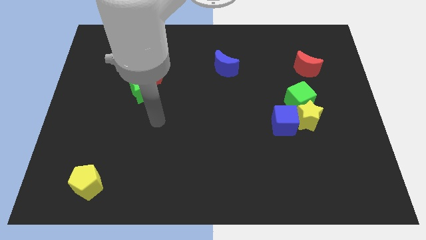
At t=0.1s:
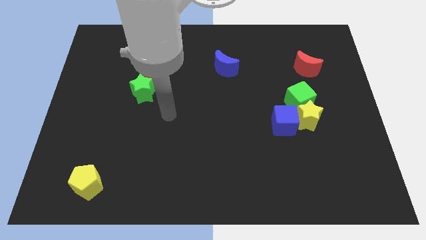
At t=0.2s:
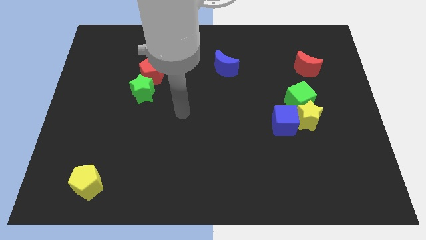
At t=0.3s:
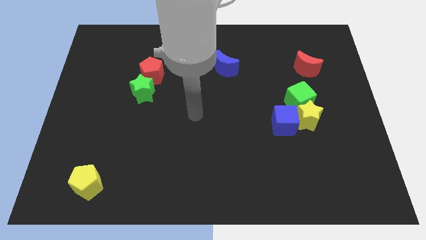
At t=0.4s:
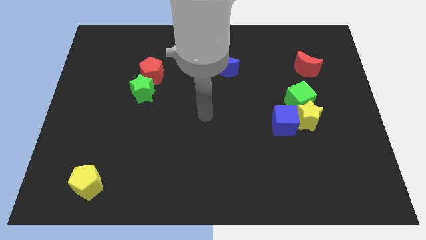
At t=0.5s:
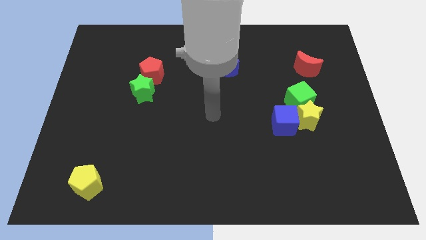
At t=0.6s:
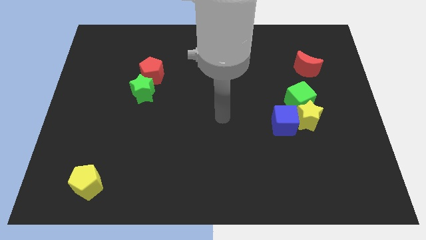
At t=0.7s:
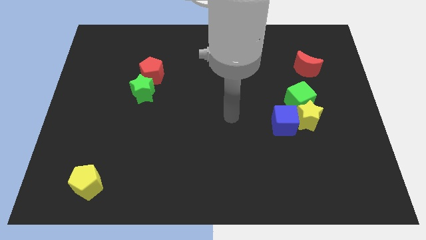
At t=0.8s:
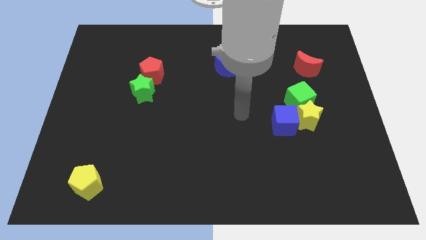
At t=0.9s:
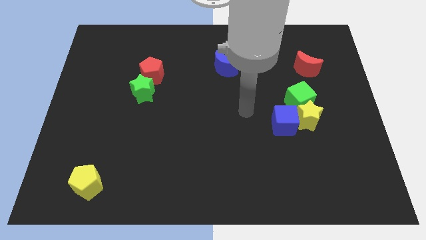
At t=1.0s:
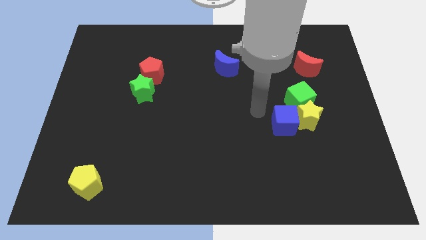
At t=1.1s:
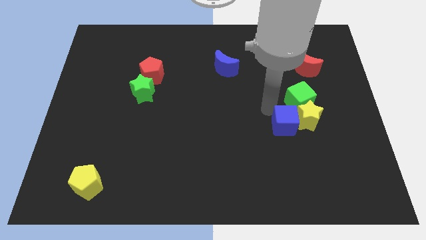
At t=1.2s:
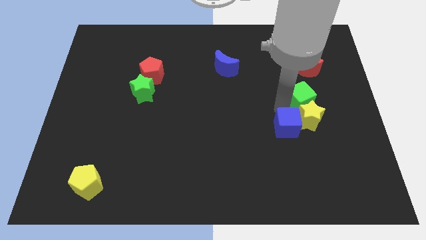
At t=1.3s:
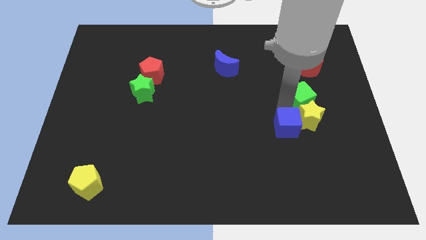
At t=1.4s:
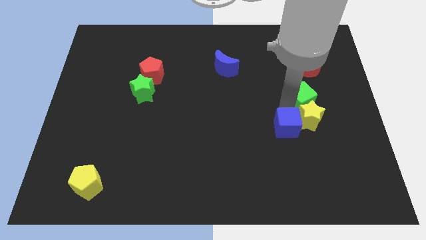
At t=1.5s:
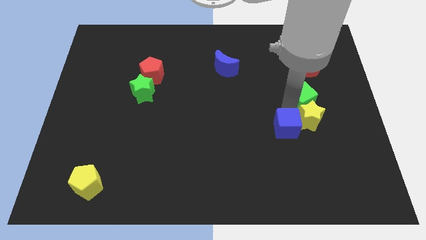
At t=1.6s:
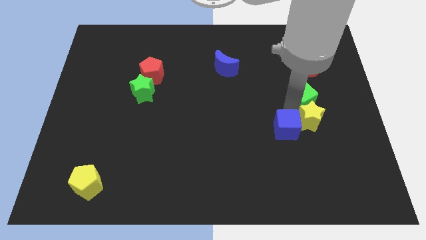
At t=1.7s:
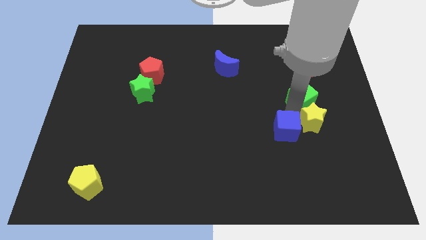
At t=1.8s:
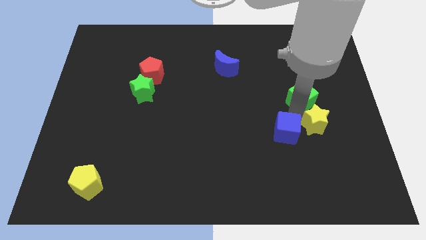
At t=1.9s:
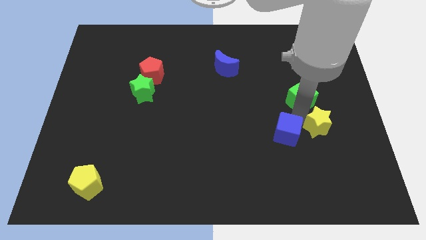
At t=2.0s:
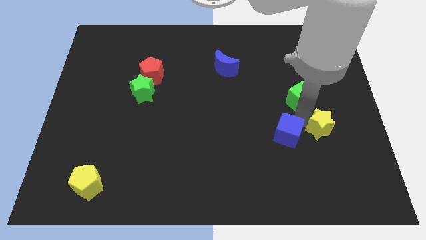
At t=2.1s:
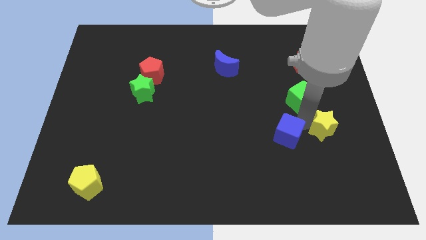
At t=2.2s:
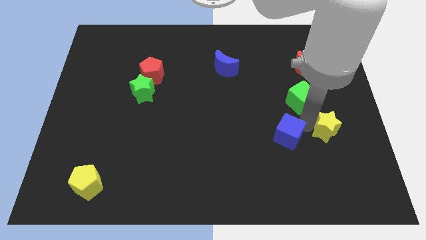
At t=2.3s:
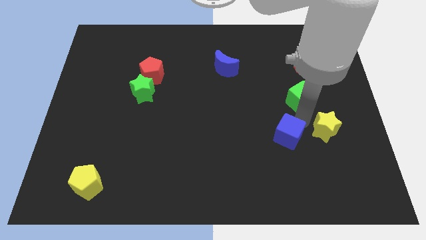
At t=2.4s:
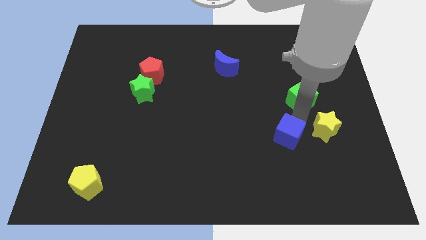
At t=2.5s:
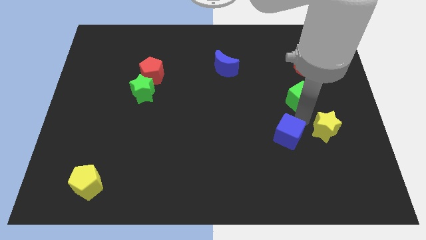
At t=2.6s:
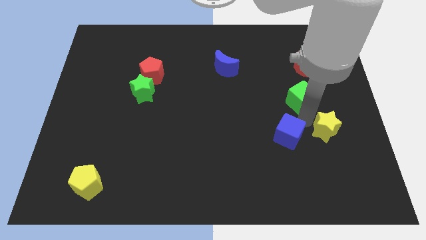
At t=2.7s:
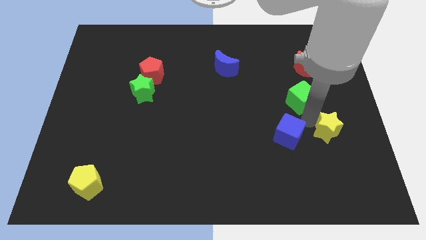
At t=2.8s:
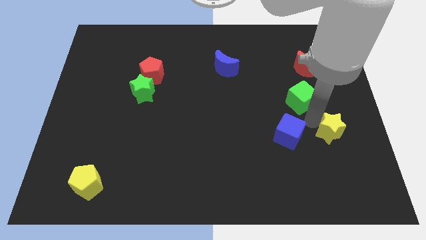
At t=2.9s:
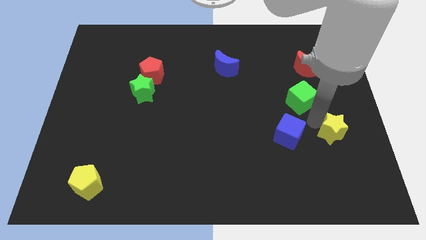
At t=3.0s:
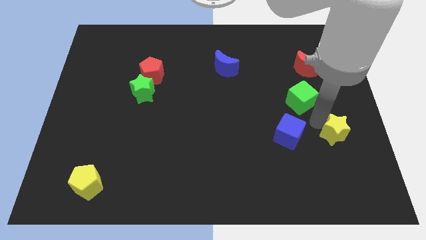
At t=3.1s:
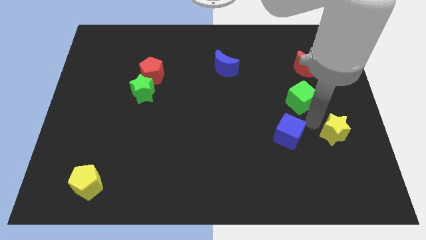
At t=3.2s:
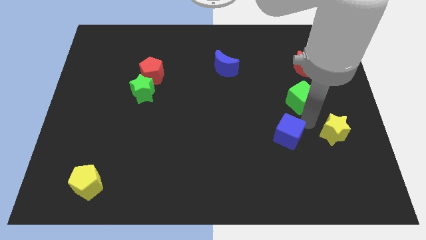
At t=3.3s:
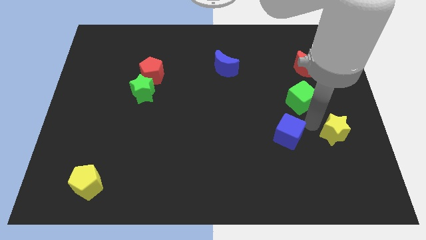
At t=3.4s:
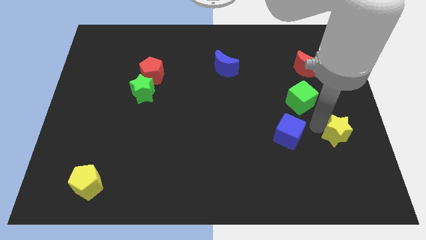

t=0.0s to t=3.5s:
pull the yellow star apart from the blue cube and green cube

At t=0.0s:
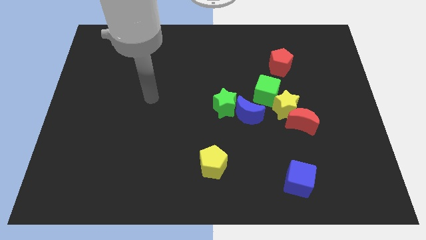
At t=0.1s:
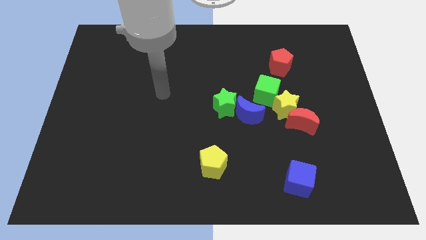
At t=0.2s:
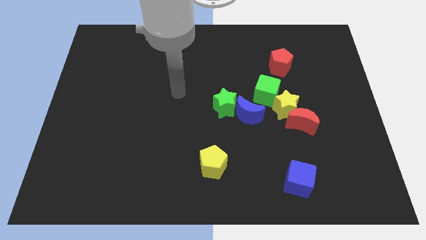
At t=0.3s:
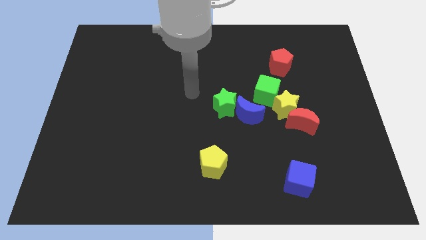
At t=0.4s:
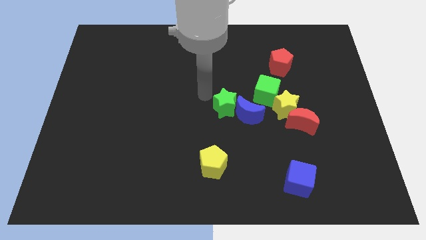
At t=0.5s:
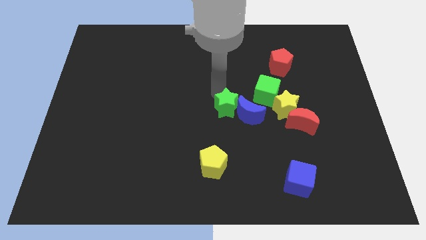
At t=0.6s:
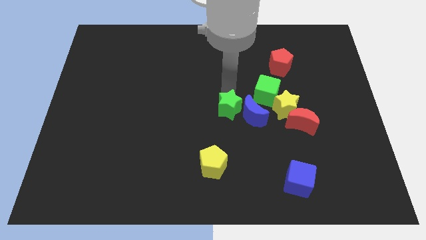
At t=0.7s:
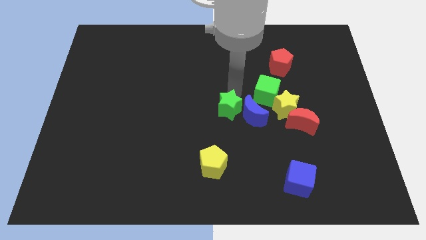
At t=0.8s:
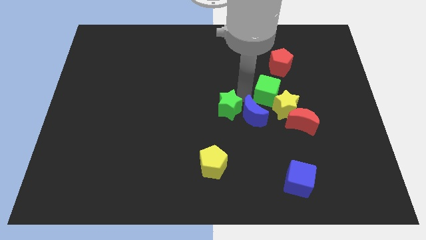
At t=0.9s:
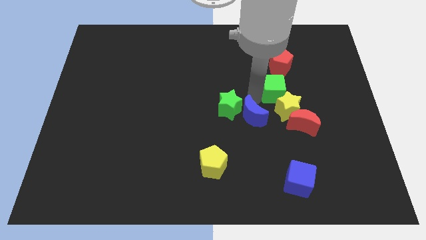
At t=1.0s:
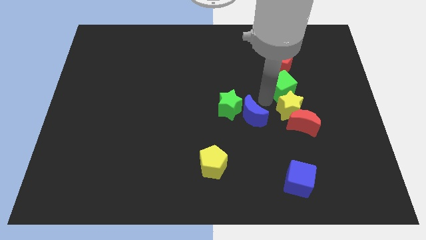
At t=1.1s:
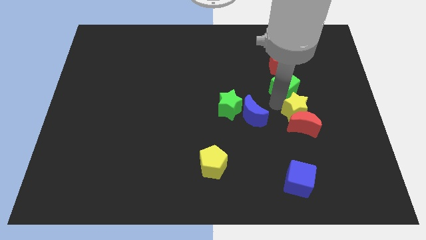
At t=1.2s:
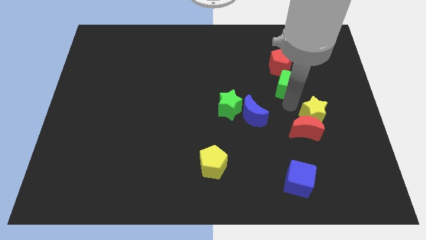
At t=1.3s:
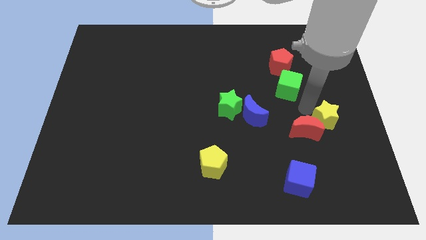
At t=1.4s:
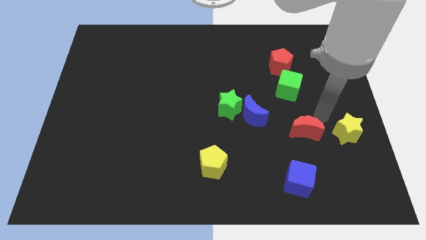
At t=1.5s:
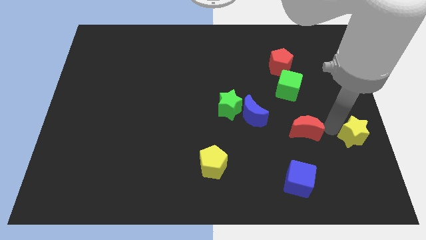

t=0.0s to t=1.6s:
move the red moon away from the yellow star

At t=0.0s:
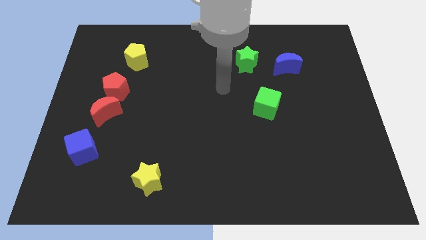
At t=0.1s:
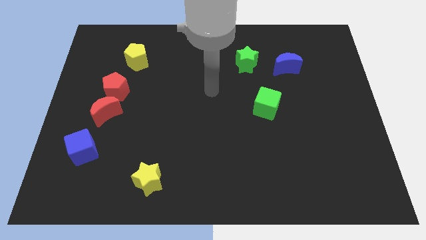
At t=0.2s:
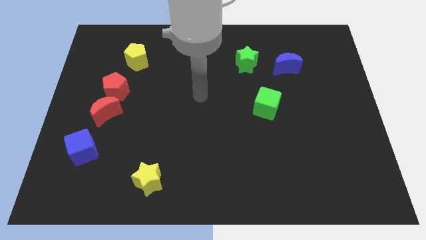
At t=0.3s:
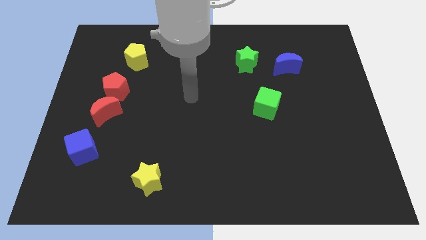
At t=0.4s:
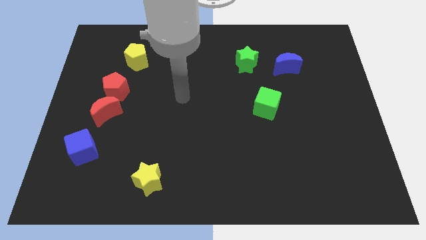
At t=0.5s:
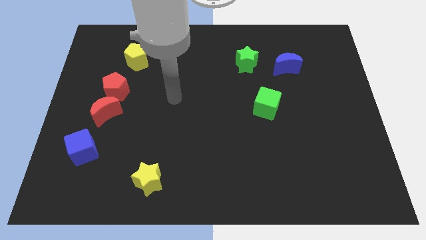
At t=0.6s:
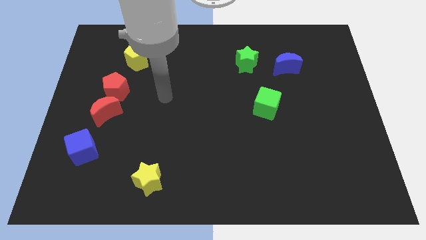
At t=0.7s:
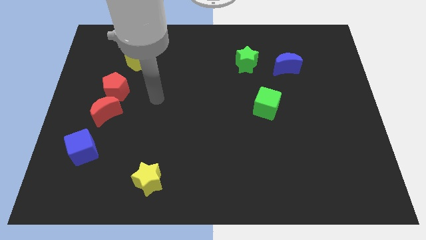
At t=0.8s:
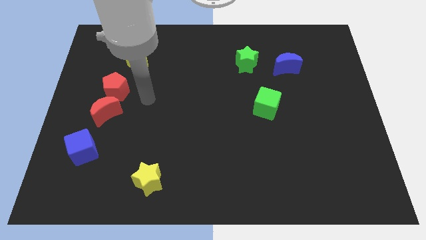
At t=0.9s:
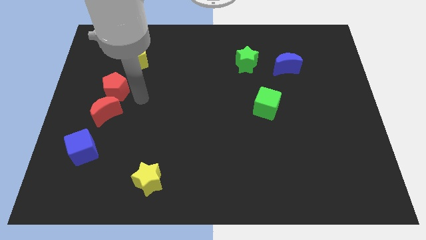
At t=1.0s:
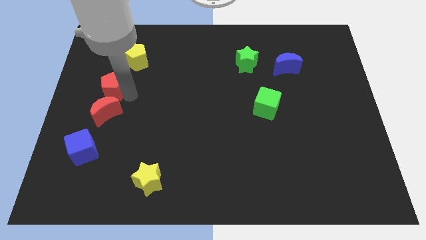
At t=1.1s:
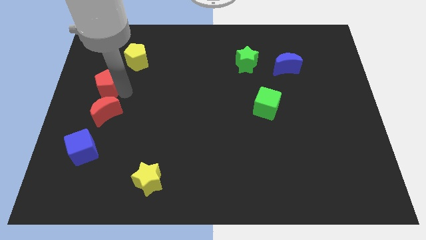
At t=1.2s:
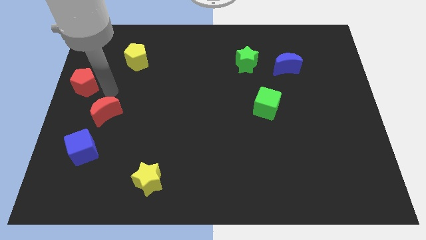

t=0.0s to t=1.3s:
pull the red moon apart from the red pentagon

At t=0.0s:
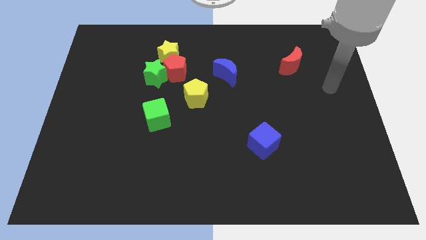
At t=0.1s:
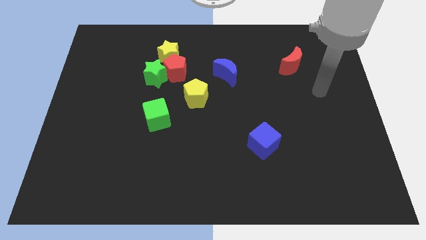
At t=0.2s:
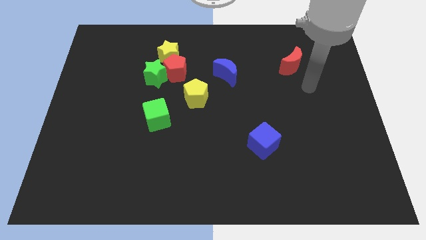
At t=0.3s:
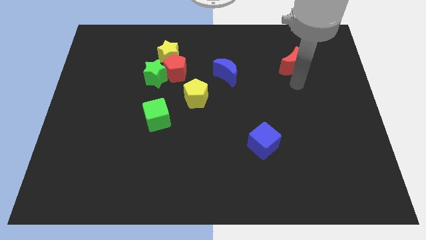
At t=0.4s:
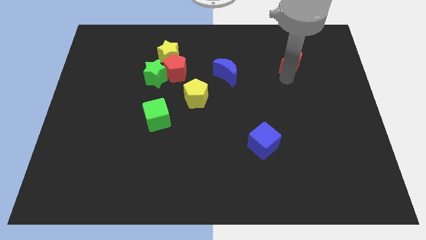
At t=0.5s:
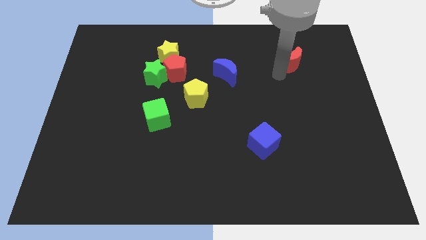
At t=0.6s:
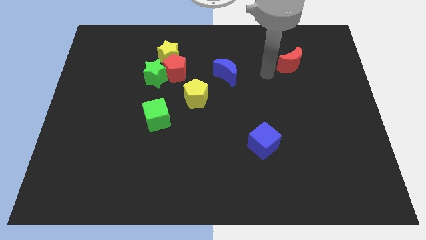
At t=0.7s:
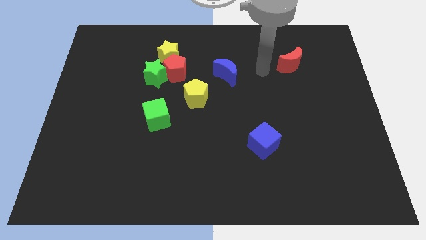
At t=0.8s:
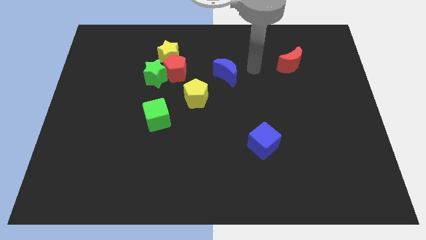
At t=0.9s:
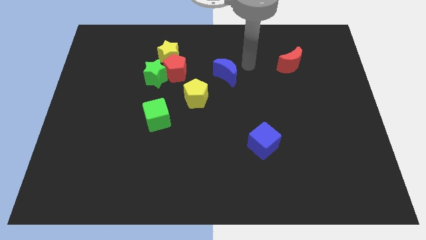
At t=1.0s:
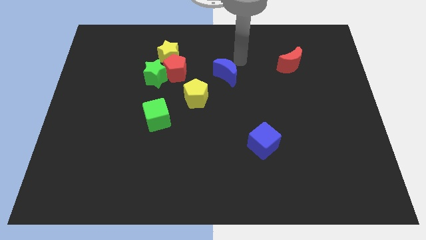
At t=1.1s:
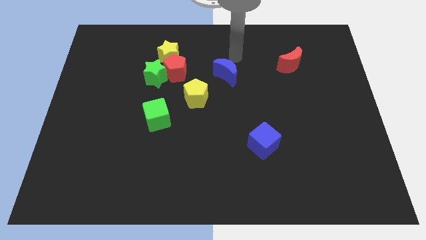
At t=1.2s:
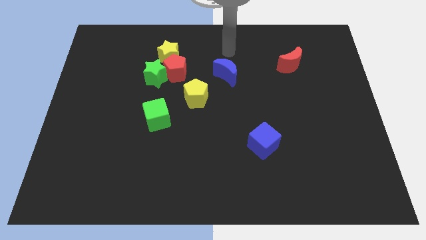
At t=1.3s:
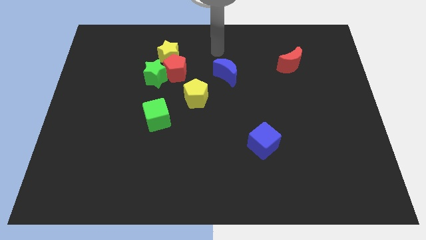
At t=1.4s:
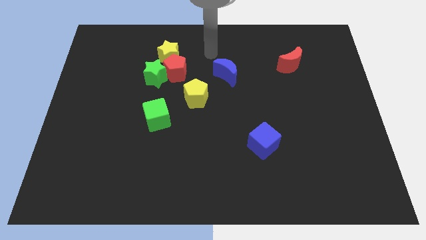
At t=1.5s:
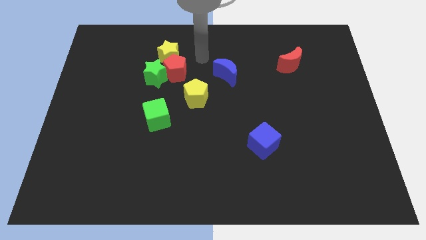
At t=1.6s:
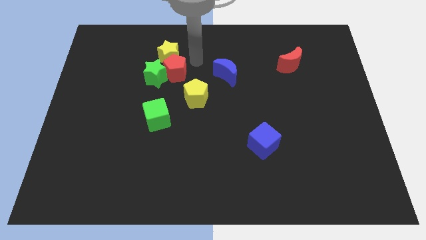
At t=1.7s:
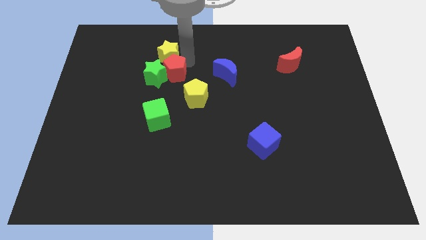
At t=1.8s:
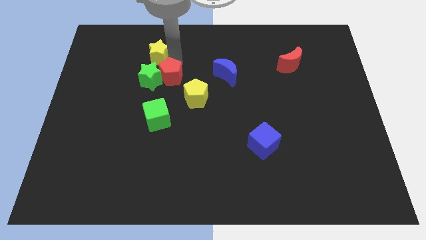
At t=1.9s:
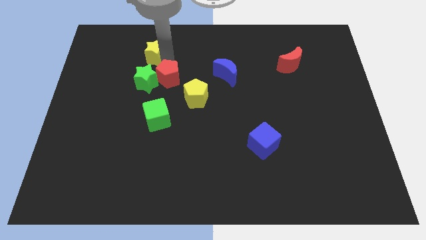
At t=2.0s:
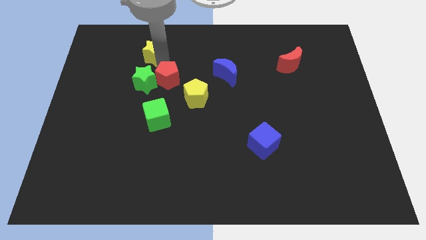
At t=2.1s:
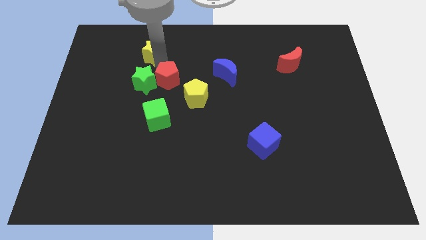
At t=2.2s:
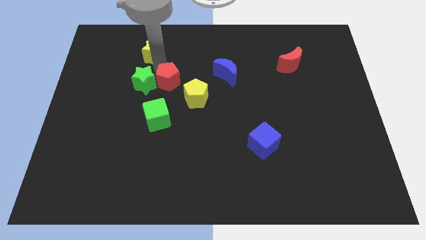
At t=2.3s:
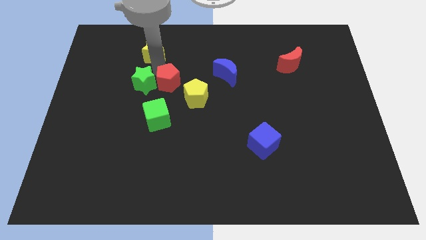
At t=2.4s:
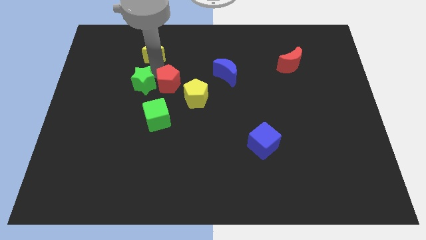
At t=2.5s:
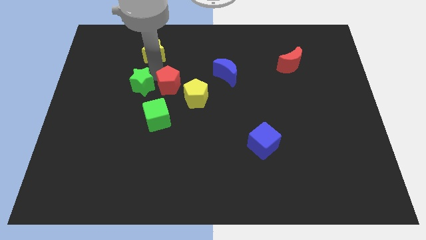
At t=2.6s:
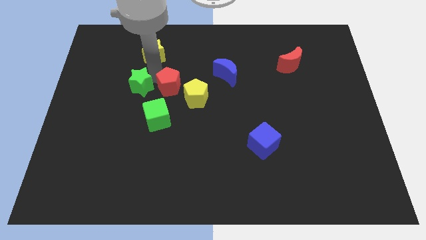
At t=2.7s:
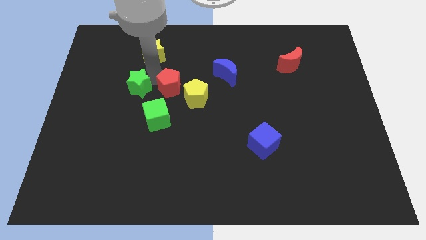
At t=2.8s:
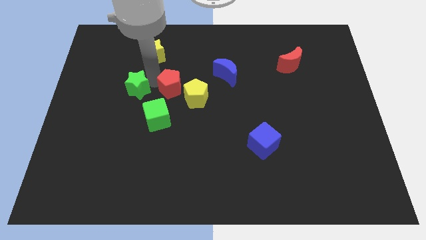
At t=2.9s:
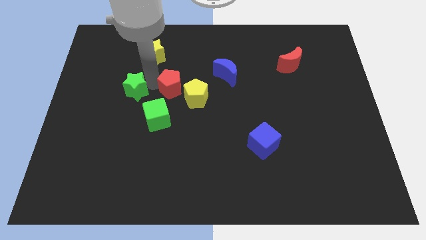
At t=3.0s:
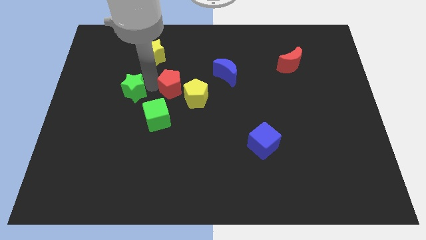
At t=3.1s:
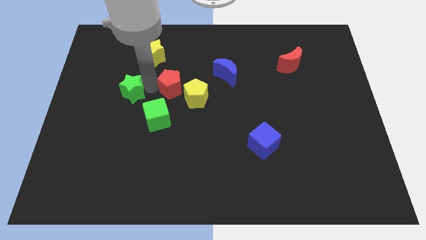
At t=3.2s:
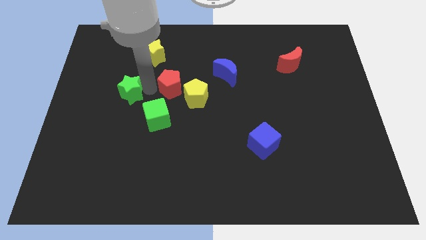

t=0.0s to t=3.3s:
separate the green star from the red pentagon and yellow star
